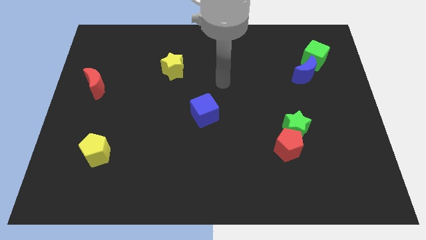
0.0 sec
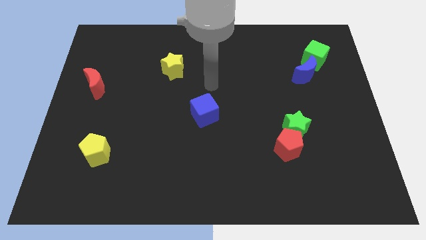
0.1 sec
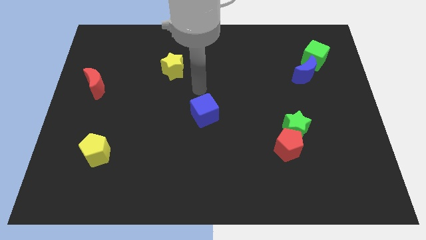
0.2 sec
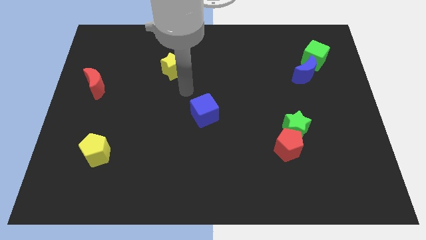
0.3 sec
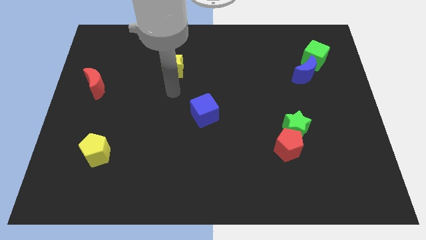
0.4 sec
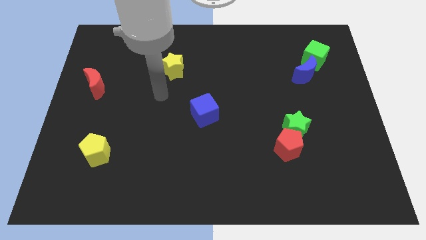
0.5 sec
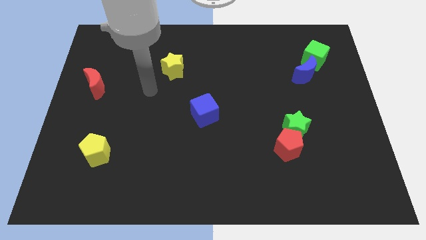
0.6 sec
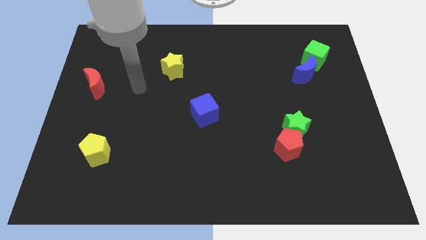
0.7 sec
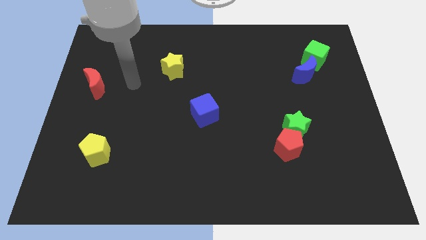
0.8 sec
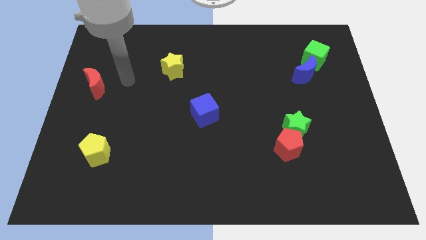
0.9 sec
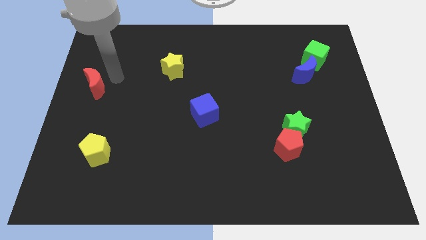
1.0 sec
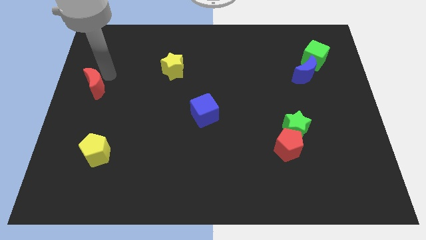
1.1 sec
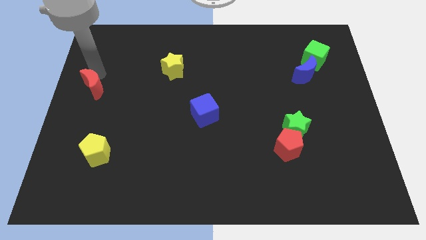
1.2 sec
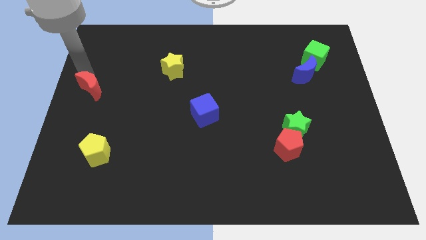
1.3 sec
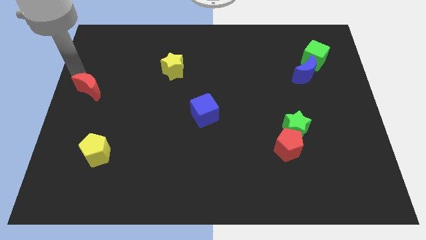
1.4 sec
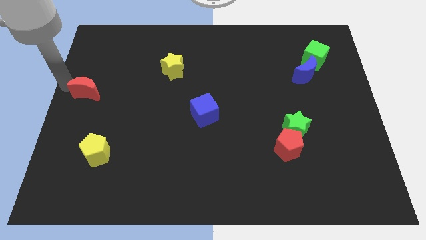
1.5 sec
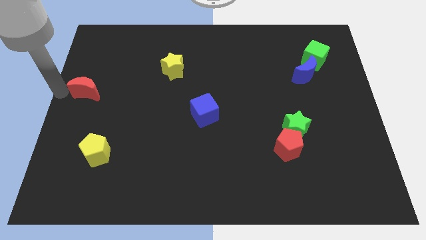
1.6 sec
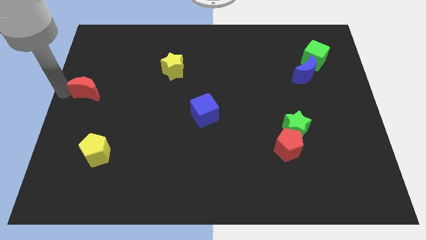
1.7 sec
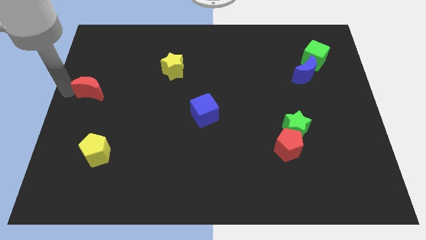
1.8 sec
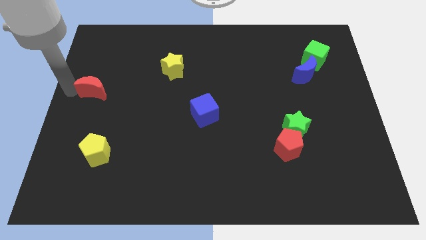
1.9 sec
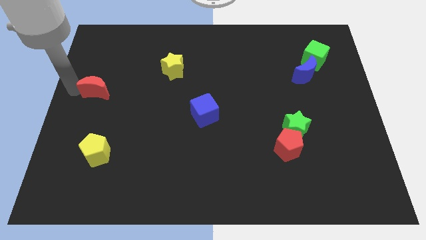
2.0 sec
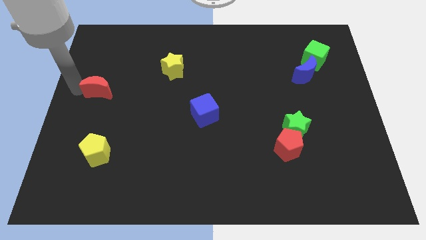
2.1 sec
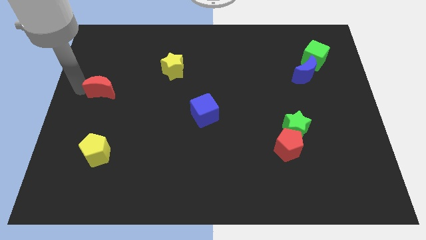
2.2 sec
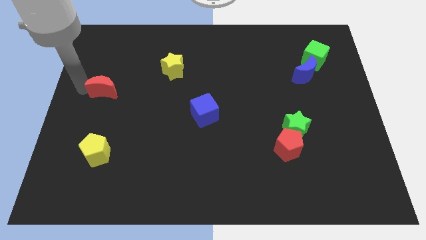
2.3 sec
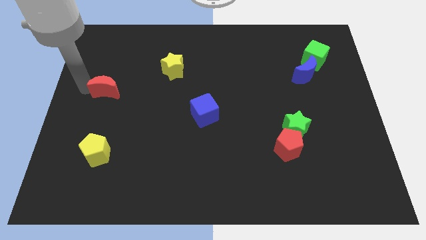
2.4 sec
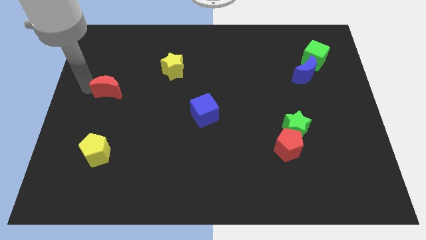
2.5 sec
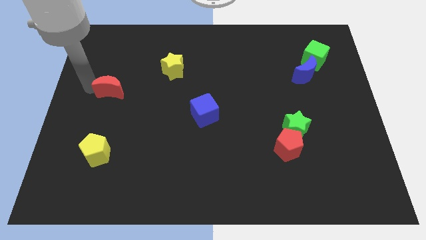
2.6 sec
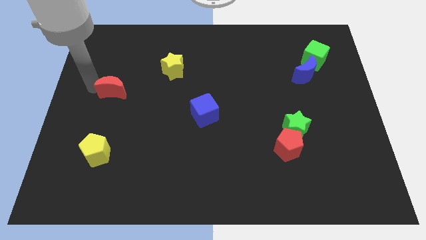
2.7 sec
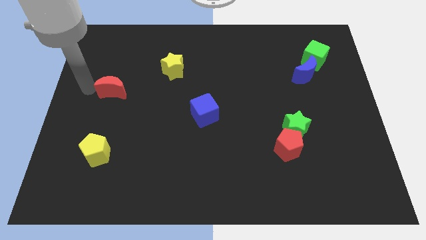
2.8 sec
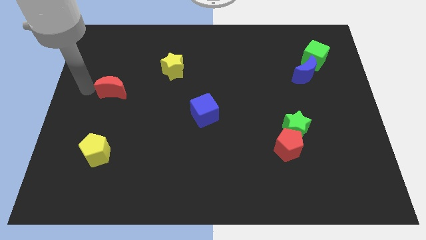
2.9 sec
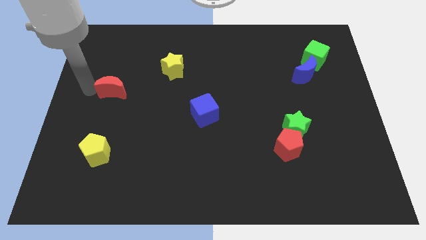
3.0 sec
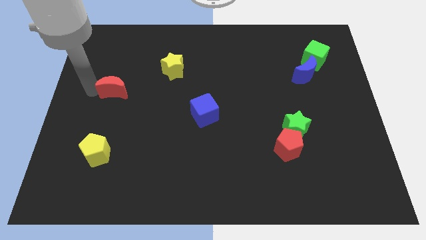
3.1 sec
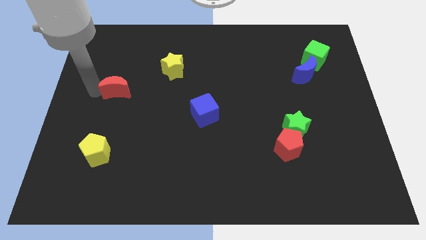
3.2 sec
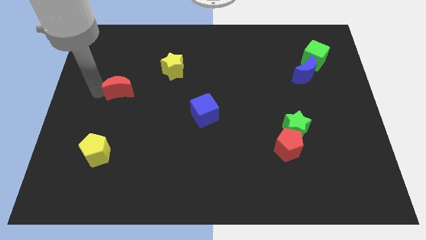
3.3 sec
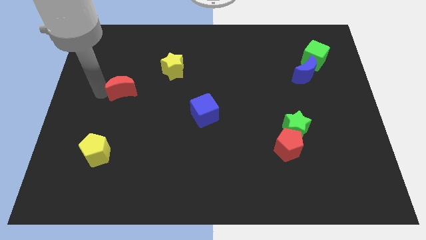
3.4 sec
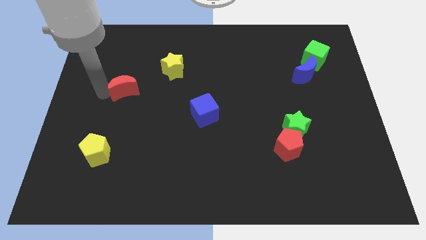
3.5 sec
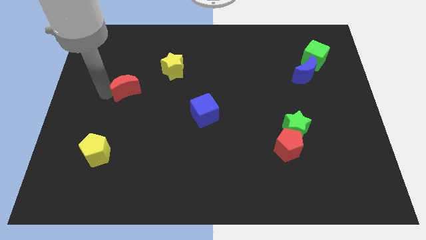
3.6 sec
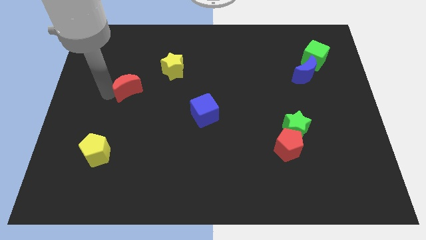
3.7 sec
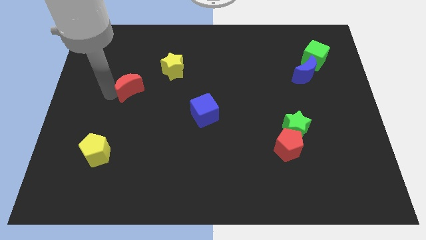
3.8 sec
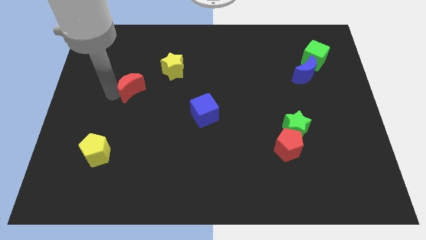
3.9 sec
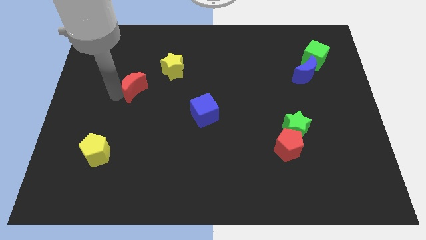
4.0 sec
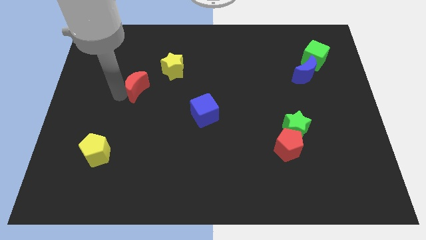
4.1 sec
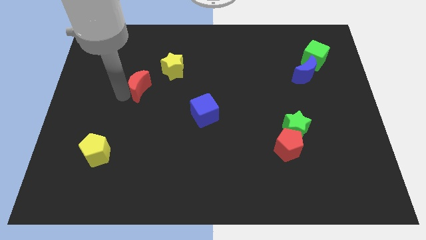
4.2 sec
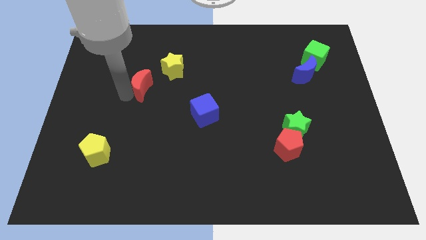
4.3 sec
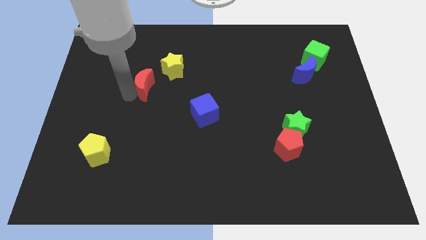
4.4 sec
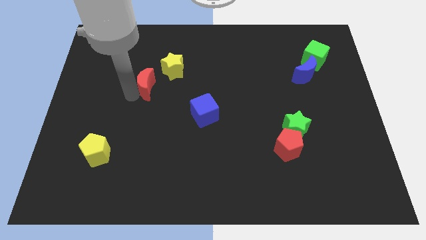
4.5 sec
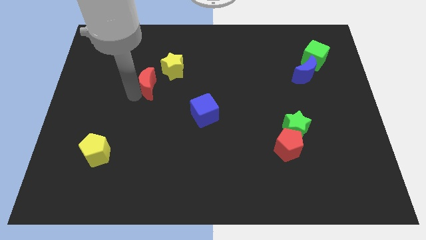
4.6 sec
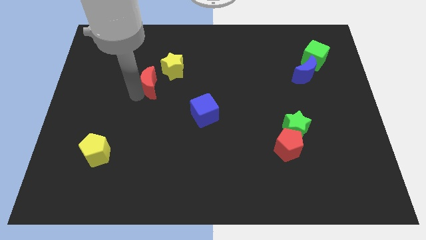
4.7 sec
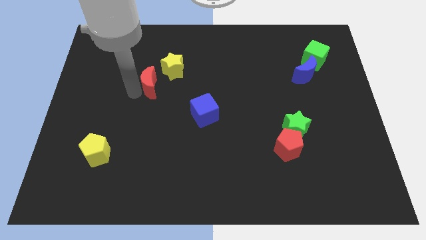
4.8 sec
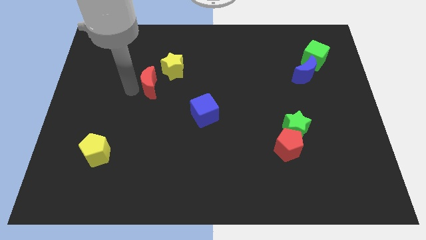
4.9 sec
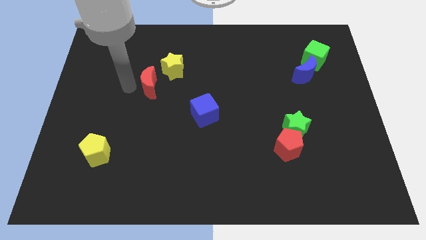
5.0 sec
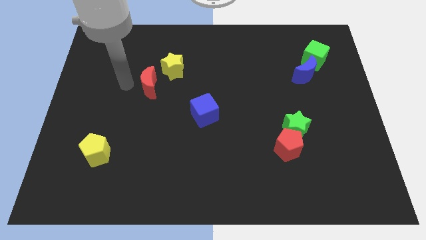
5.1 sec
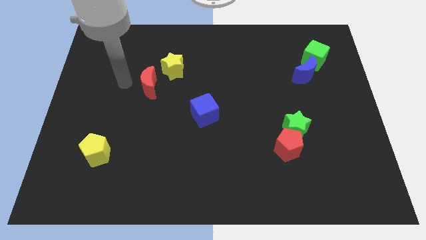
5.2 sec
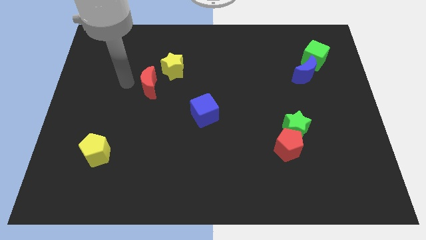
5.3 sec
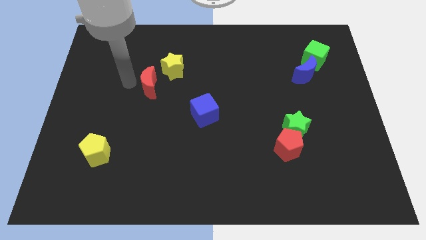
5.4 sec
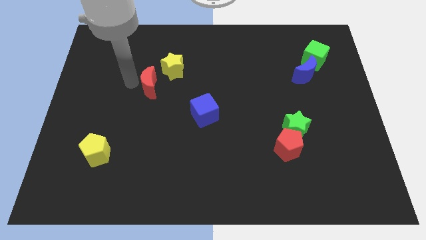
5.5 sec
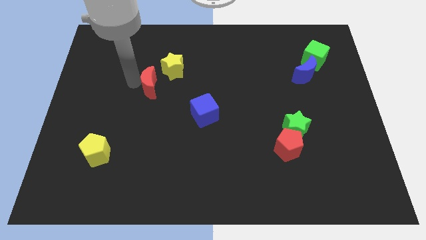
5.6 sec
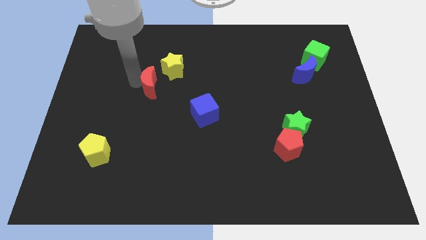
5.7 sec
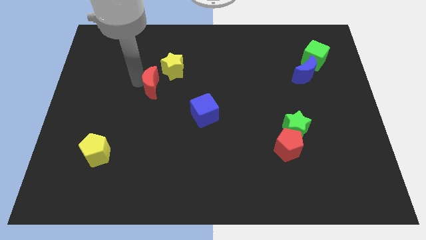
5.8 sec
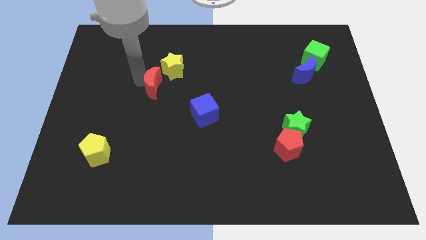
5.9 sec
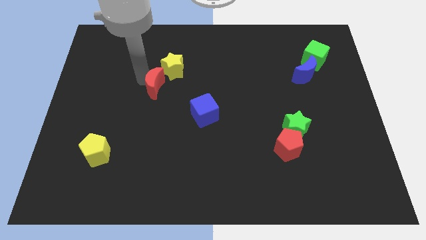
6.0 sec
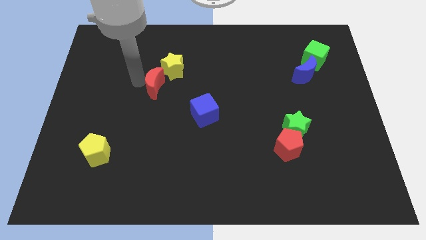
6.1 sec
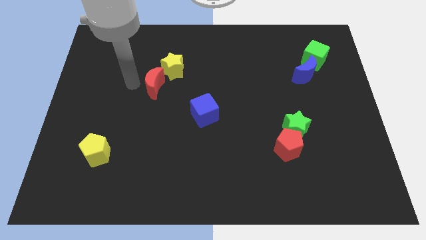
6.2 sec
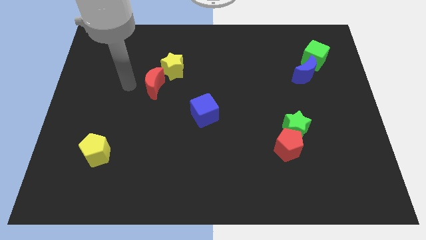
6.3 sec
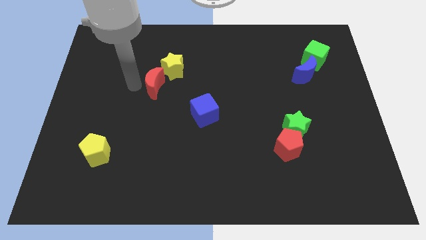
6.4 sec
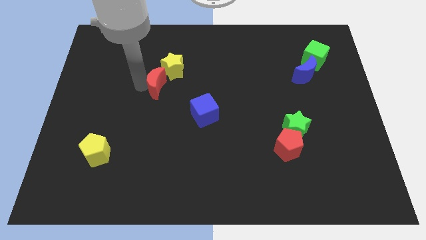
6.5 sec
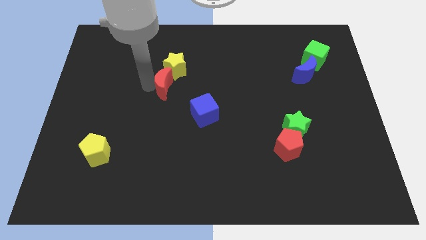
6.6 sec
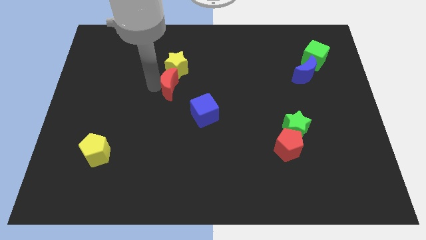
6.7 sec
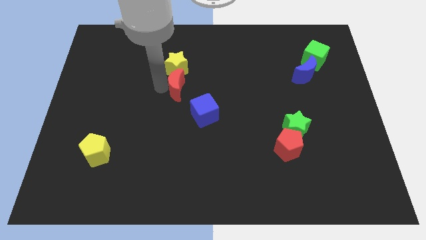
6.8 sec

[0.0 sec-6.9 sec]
put the red moon diagonally down and to the right of the yellow star

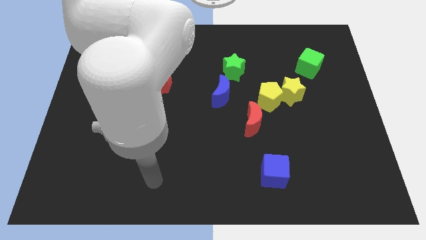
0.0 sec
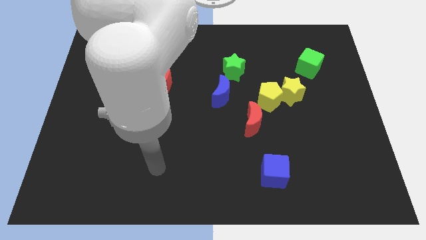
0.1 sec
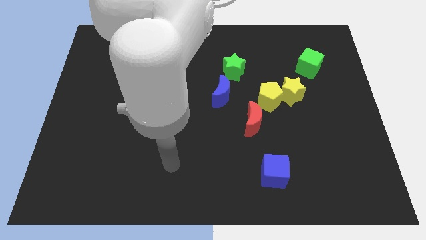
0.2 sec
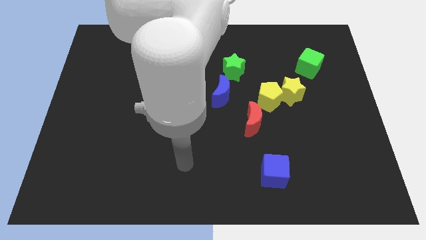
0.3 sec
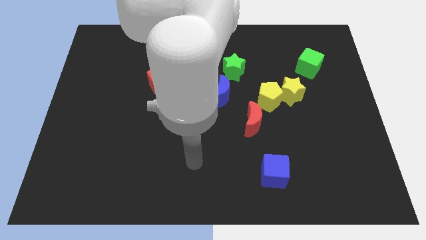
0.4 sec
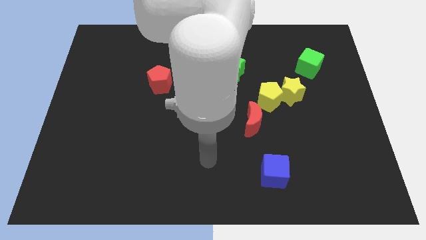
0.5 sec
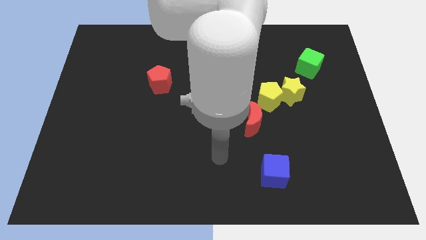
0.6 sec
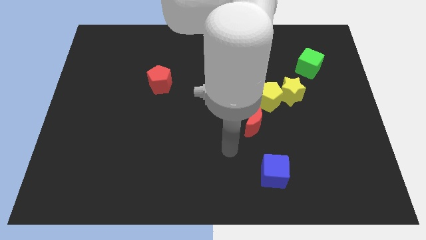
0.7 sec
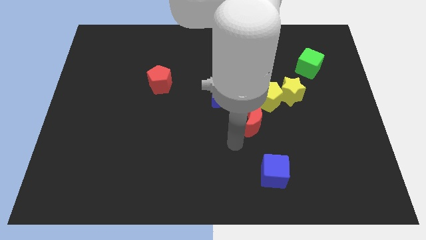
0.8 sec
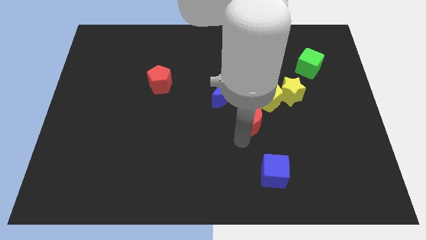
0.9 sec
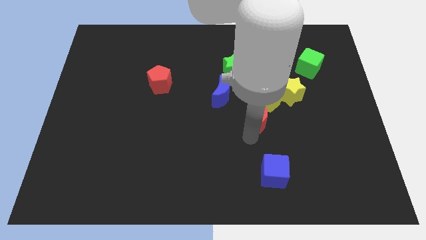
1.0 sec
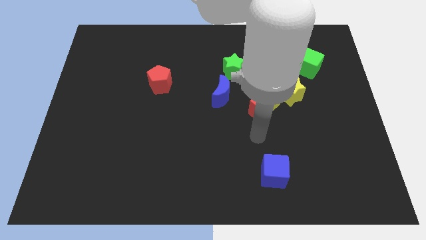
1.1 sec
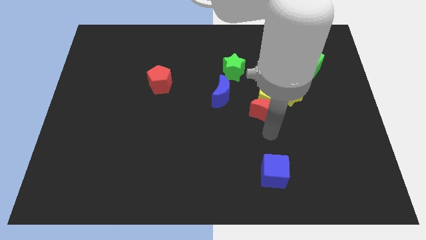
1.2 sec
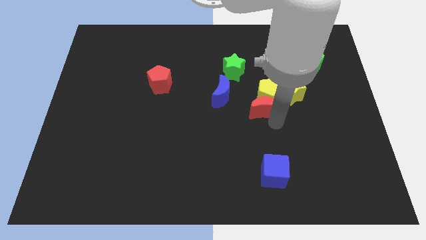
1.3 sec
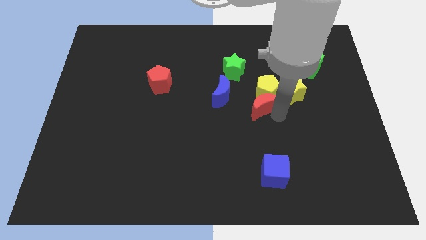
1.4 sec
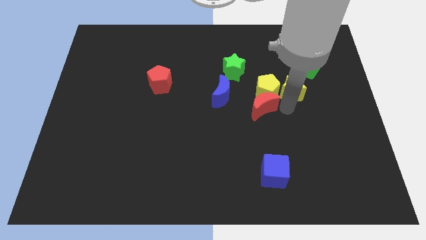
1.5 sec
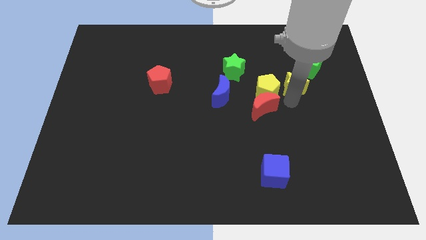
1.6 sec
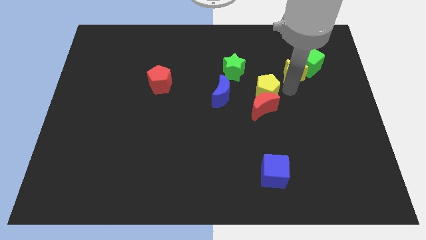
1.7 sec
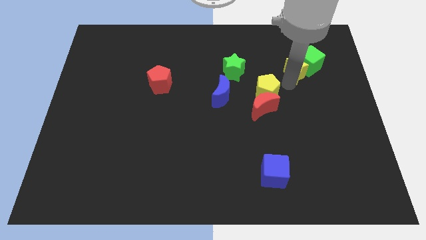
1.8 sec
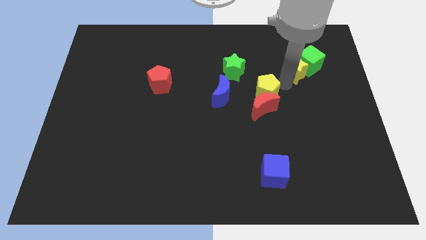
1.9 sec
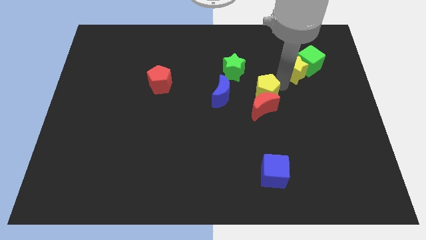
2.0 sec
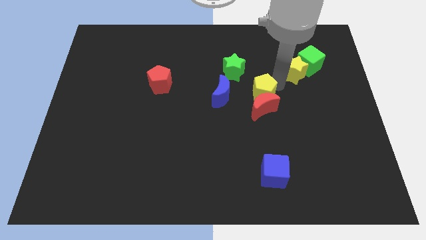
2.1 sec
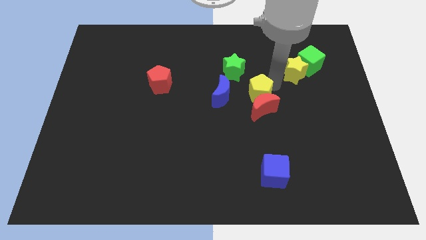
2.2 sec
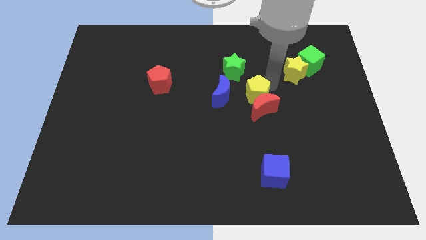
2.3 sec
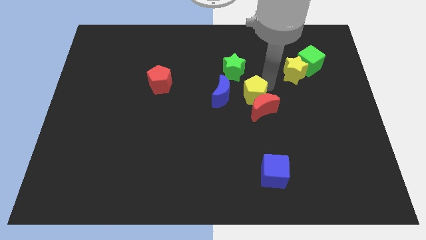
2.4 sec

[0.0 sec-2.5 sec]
move the yellow pentagon to the bottom side of the green star
